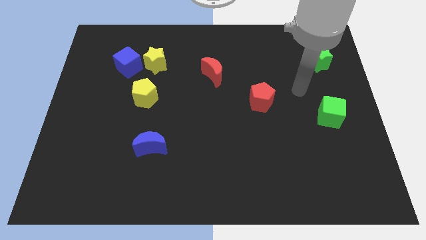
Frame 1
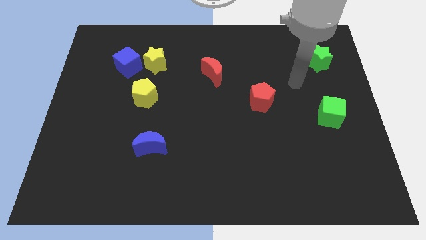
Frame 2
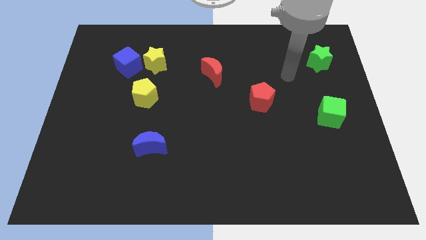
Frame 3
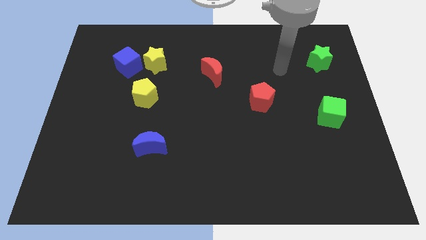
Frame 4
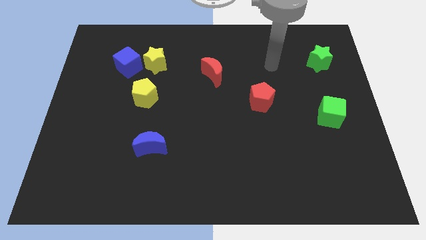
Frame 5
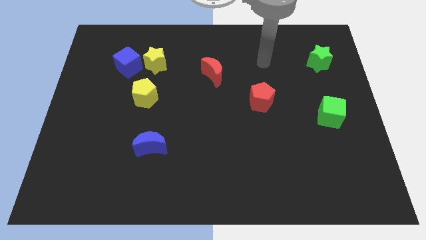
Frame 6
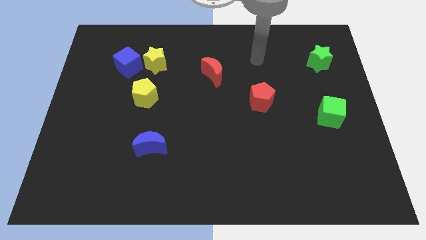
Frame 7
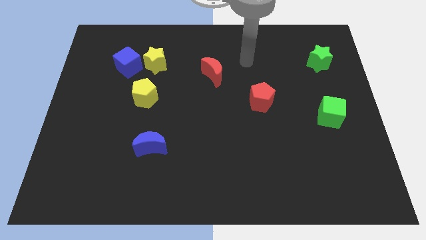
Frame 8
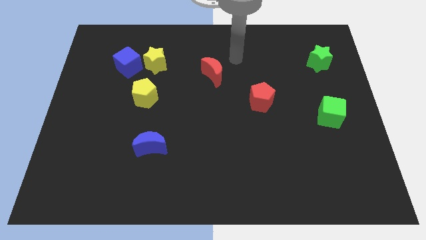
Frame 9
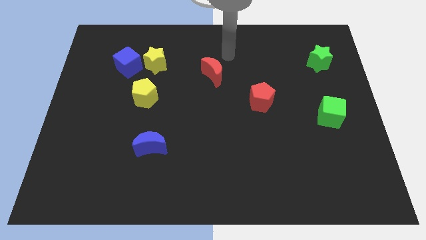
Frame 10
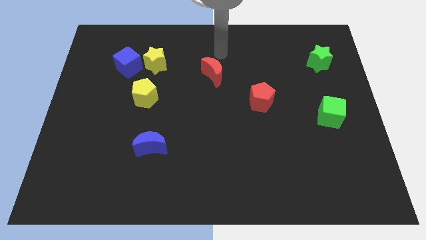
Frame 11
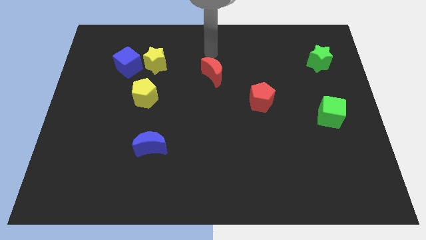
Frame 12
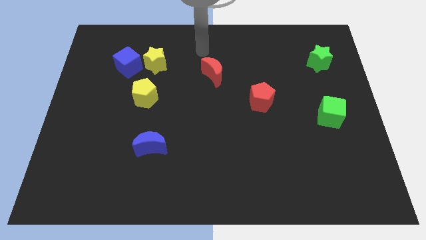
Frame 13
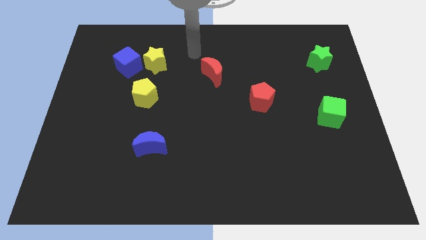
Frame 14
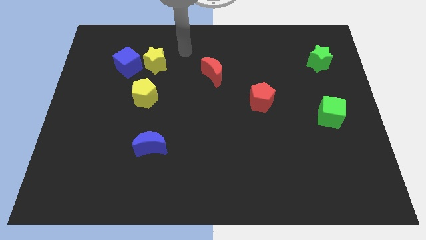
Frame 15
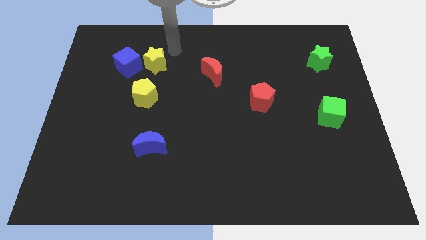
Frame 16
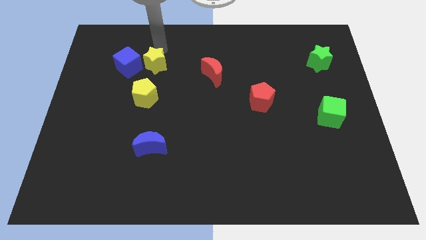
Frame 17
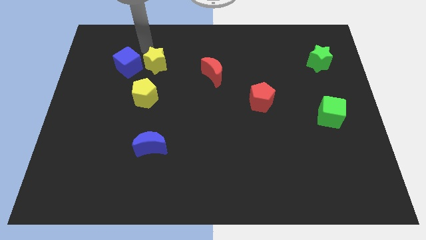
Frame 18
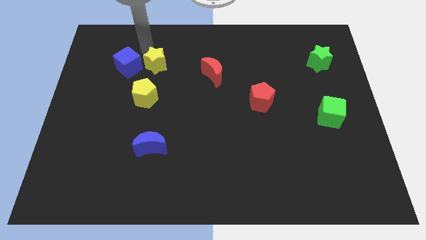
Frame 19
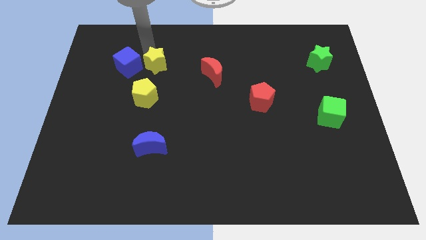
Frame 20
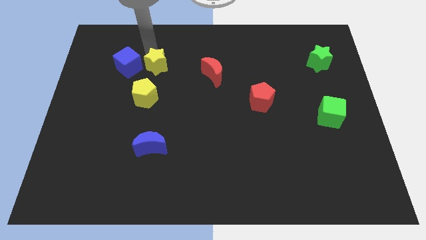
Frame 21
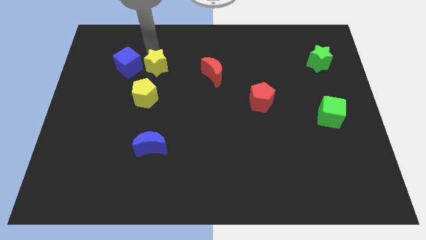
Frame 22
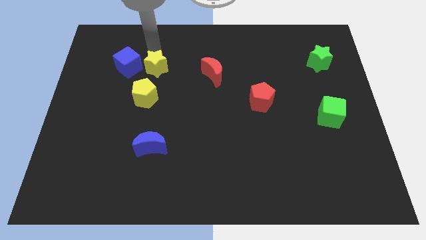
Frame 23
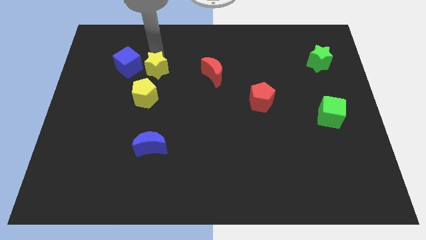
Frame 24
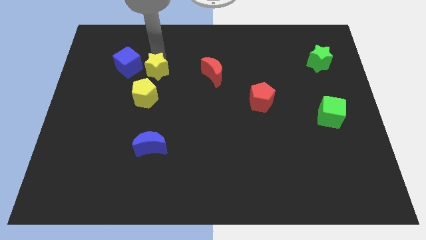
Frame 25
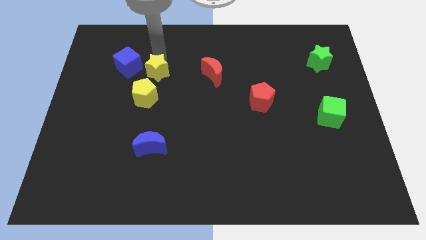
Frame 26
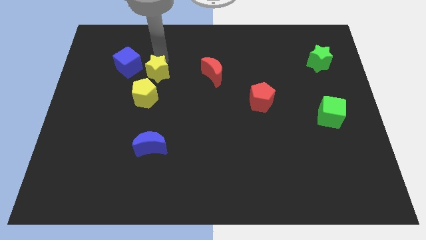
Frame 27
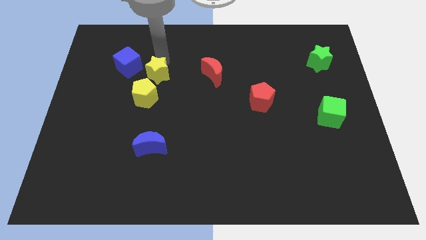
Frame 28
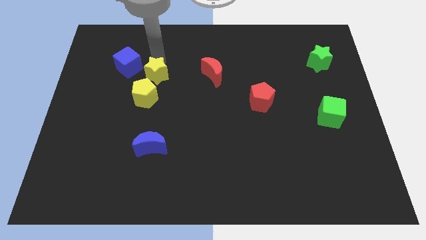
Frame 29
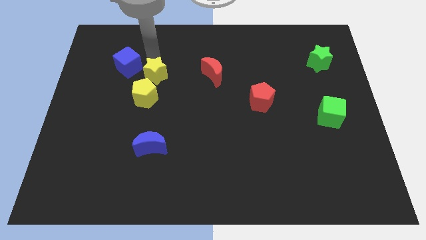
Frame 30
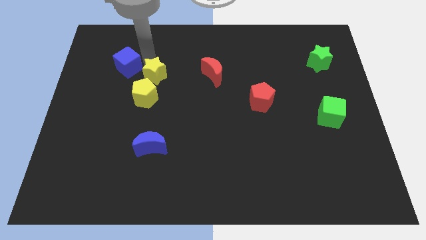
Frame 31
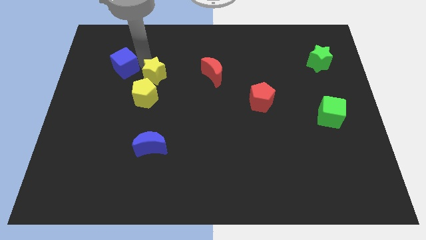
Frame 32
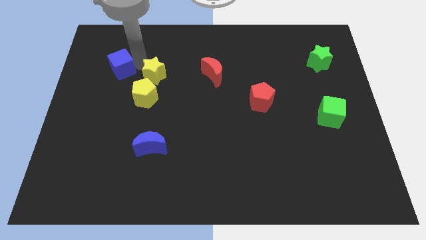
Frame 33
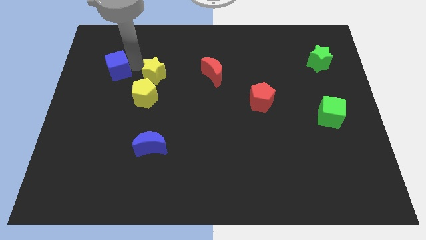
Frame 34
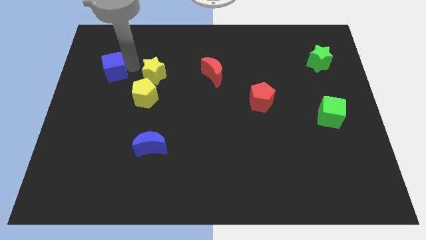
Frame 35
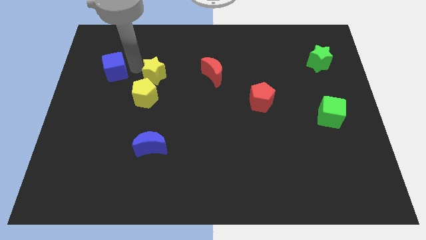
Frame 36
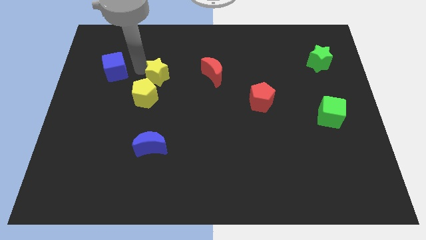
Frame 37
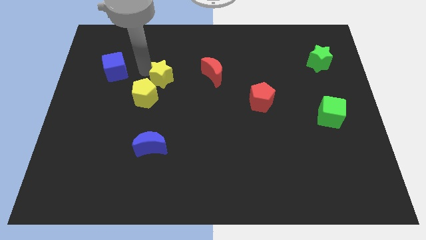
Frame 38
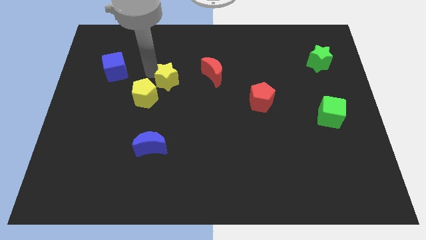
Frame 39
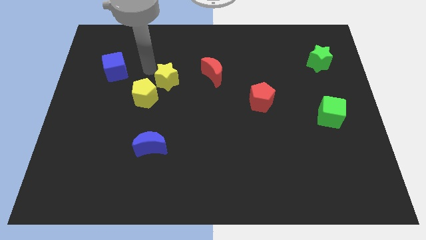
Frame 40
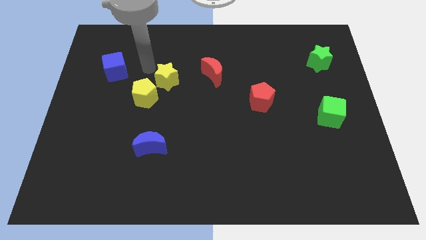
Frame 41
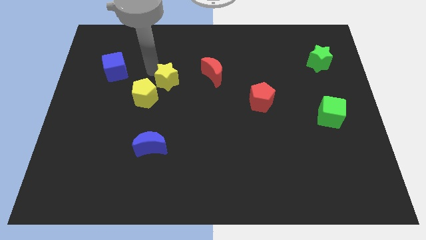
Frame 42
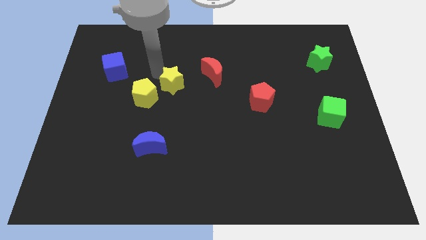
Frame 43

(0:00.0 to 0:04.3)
move the yellow star somewhat diagonally down and to the right

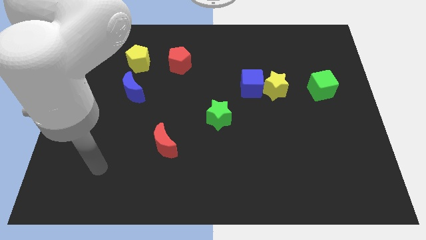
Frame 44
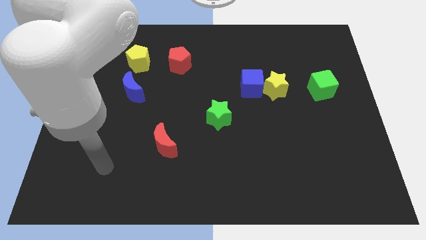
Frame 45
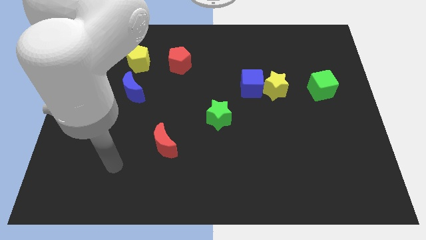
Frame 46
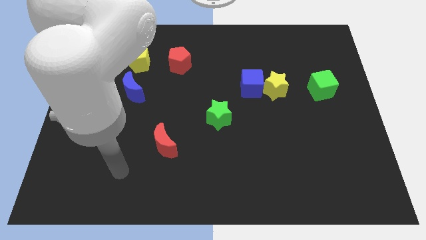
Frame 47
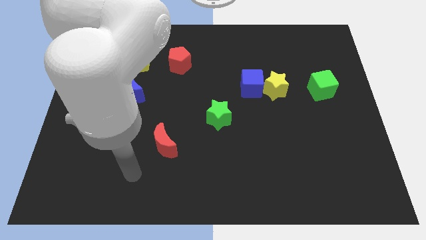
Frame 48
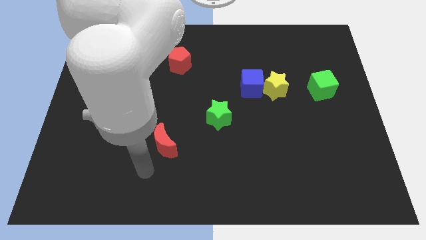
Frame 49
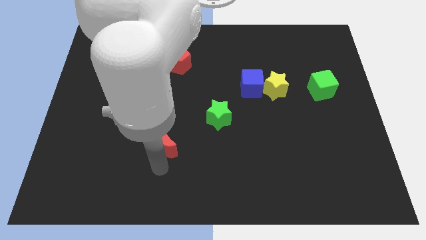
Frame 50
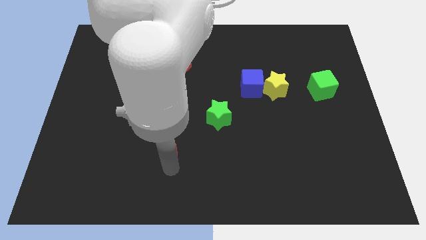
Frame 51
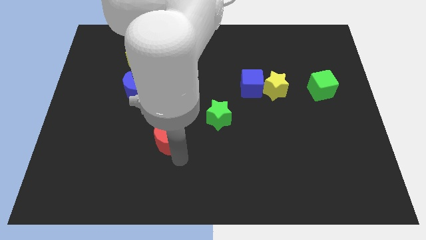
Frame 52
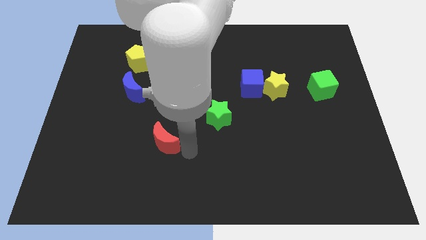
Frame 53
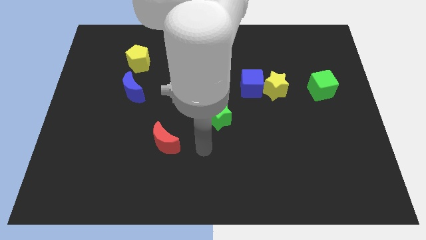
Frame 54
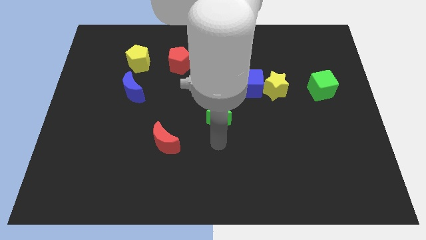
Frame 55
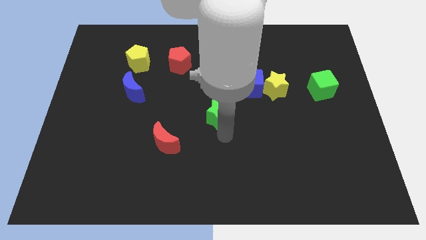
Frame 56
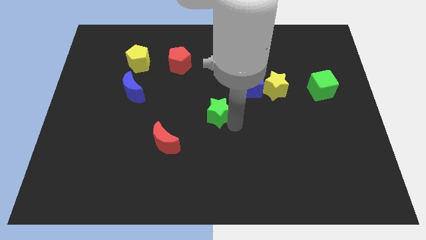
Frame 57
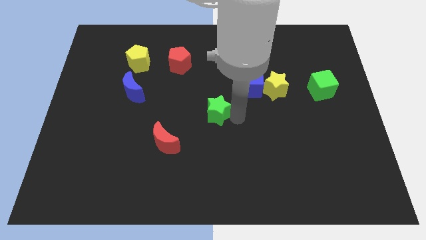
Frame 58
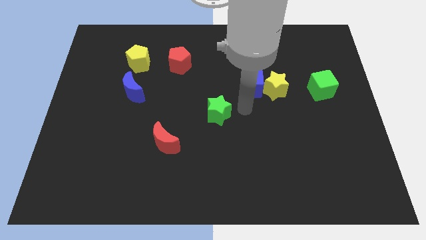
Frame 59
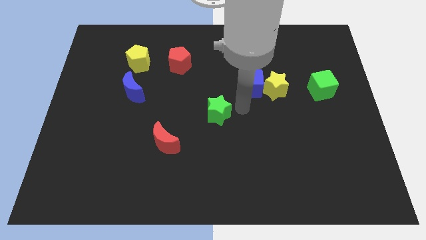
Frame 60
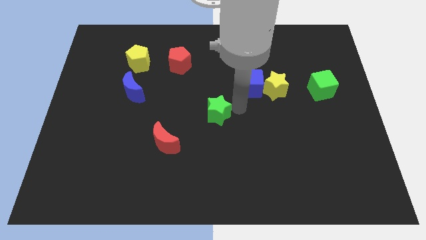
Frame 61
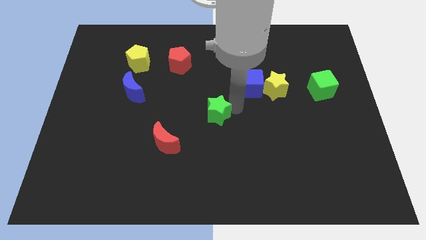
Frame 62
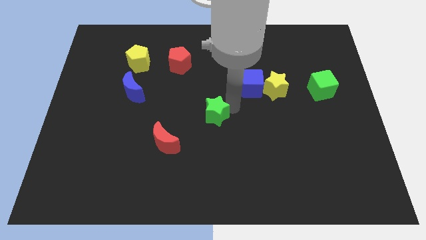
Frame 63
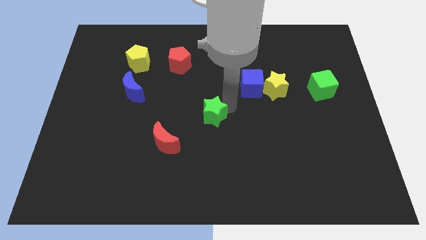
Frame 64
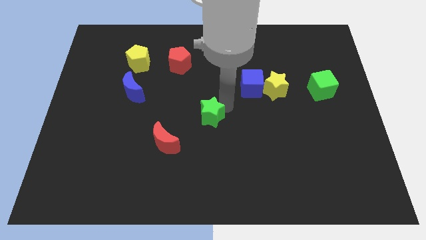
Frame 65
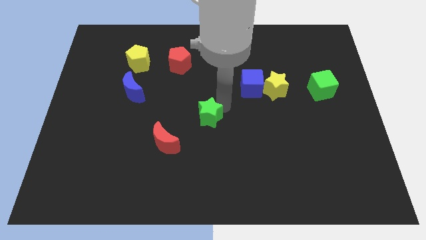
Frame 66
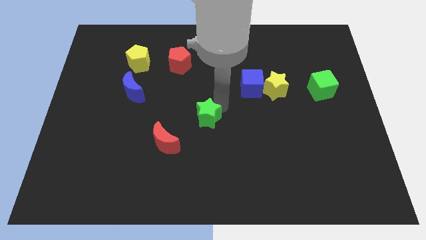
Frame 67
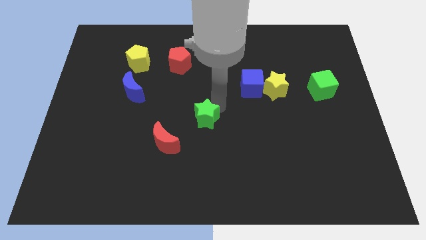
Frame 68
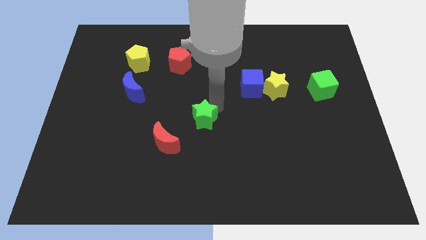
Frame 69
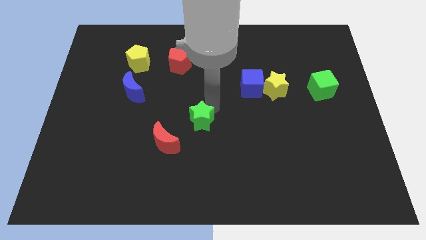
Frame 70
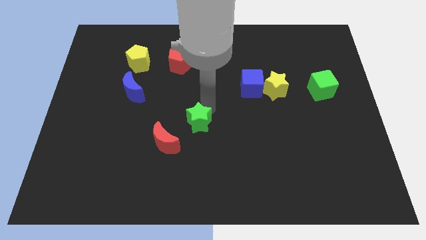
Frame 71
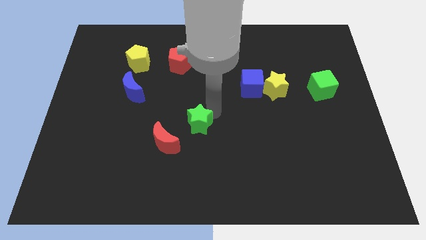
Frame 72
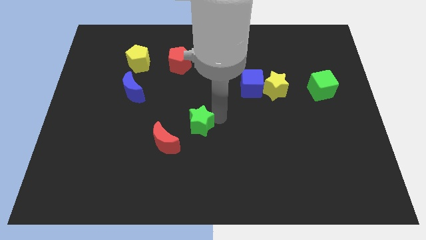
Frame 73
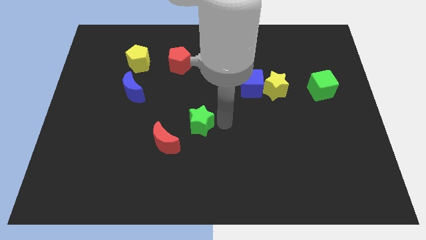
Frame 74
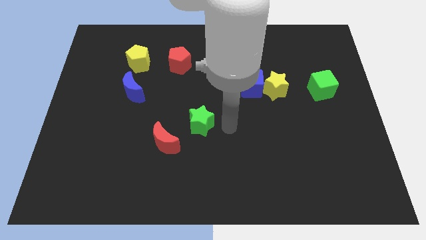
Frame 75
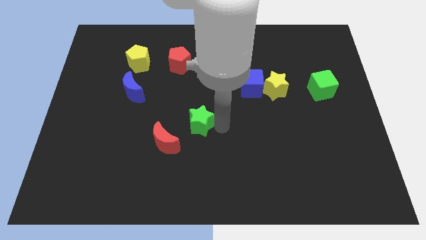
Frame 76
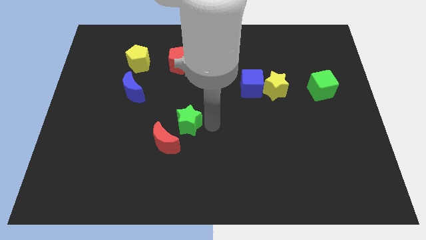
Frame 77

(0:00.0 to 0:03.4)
push the green star left a bit

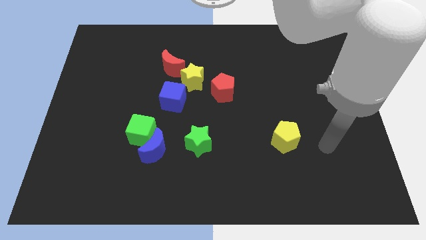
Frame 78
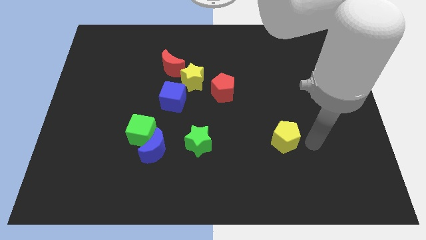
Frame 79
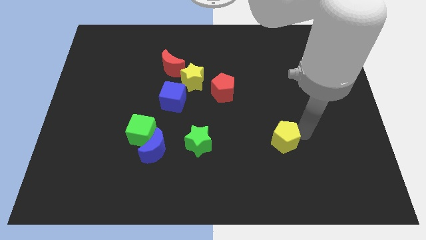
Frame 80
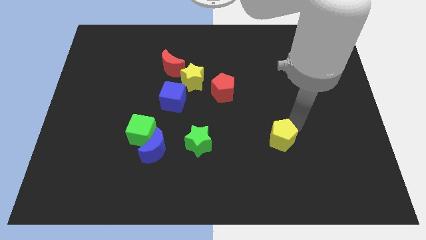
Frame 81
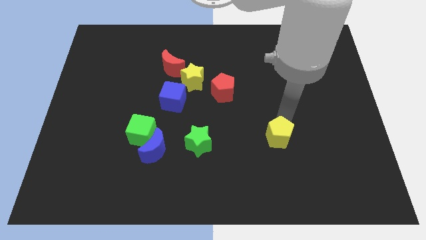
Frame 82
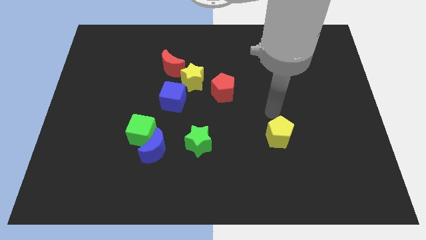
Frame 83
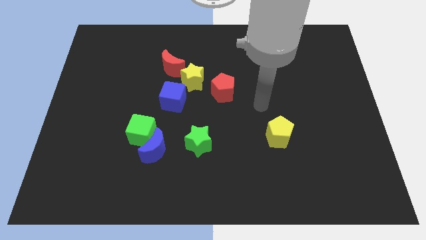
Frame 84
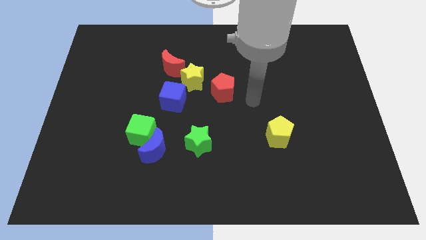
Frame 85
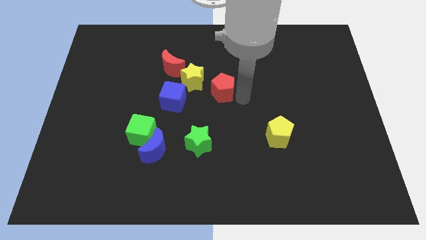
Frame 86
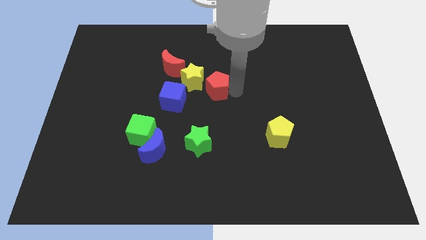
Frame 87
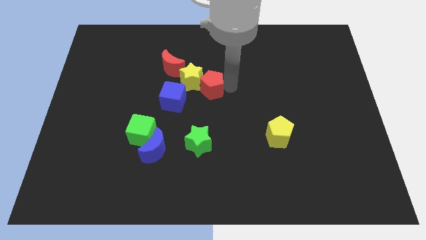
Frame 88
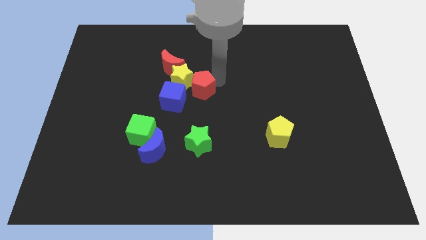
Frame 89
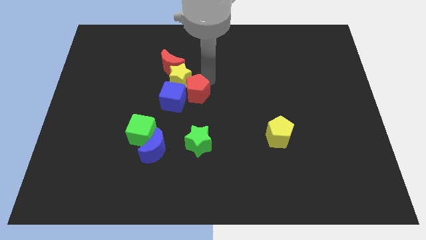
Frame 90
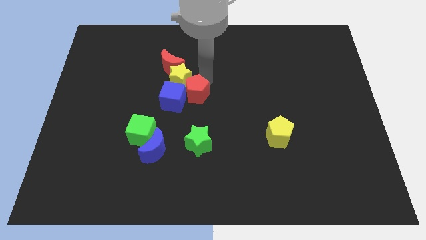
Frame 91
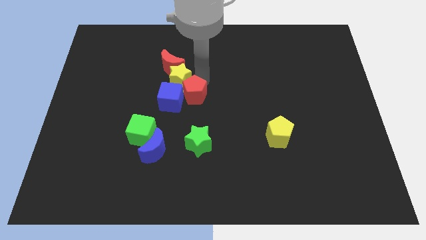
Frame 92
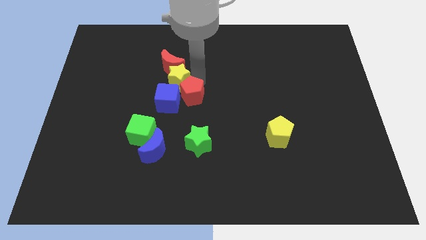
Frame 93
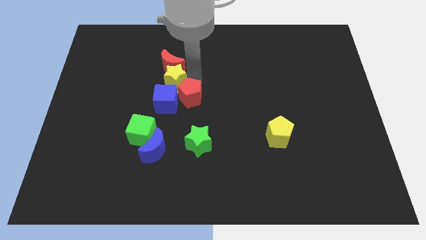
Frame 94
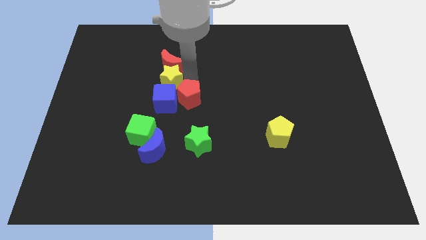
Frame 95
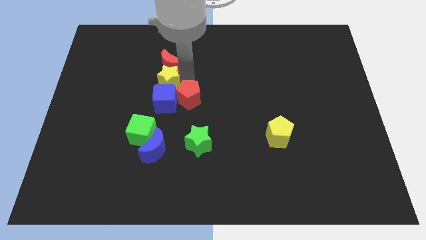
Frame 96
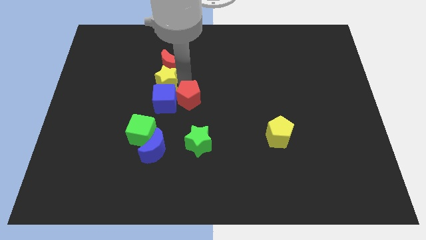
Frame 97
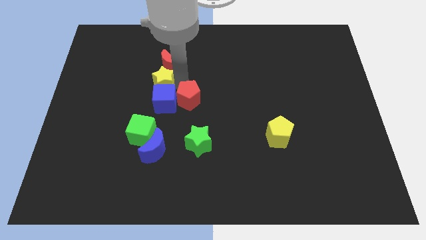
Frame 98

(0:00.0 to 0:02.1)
push the yellow star to the left a bit
